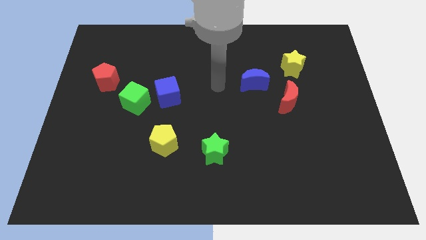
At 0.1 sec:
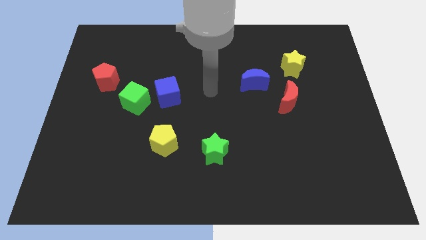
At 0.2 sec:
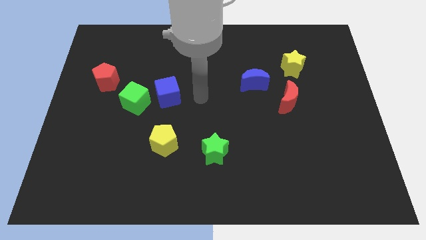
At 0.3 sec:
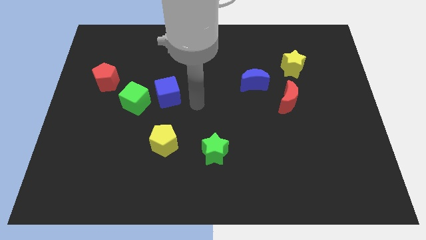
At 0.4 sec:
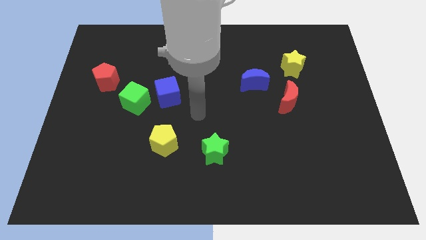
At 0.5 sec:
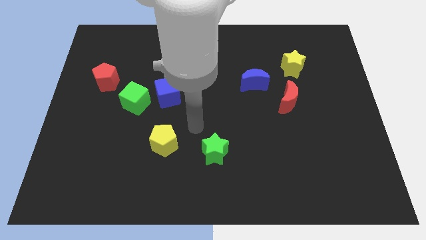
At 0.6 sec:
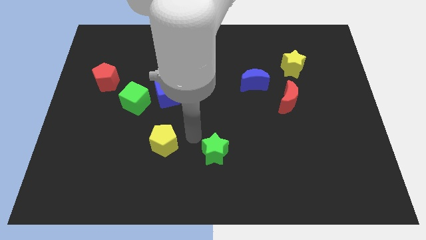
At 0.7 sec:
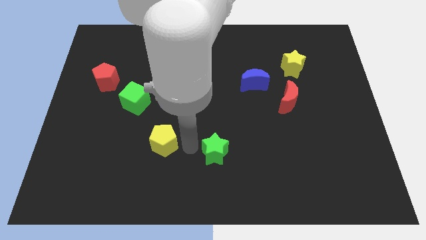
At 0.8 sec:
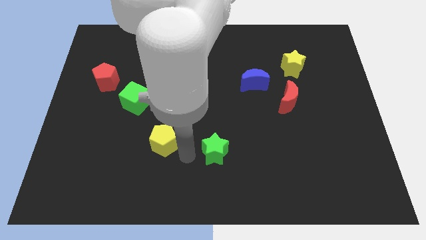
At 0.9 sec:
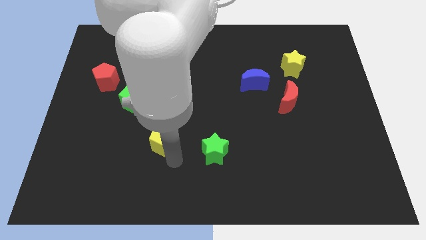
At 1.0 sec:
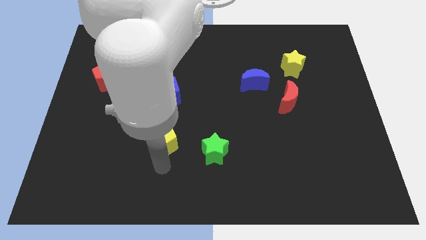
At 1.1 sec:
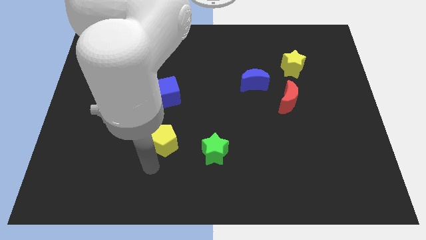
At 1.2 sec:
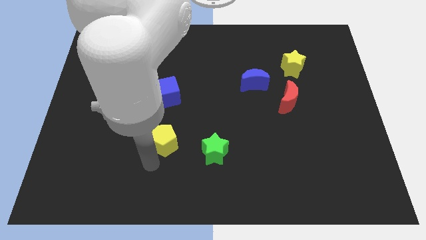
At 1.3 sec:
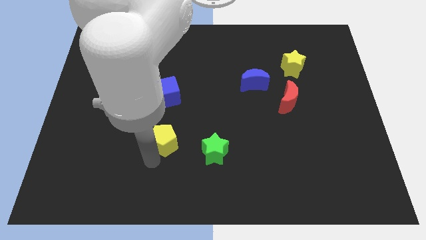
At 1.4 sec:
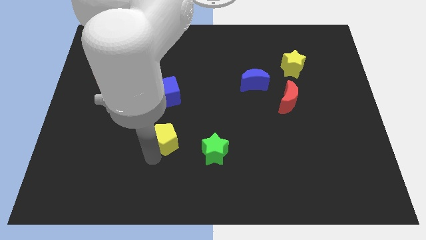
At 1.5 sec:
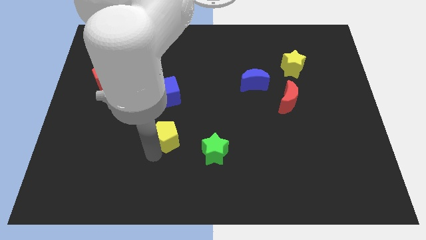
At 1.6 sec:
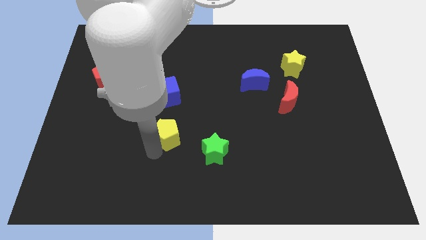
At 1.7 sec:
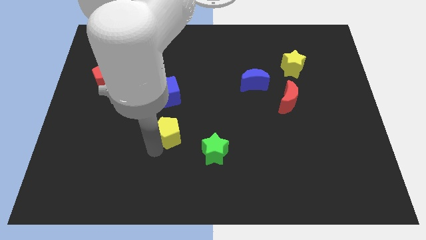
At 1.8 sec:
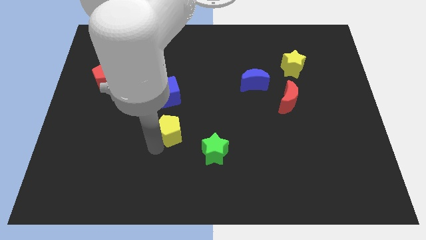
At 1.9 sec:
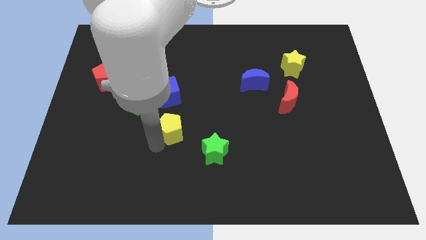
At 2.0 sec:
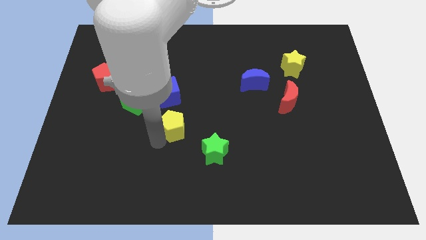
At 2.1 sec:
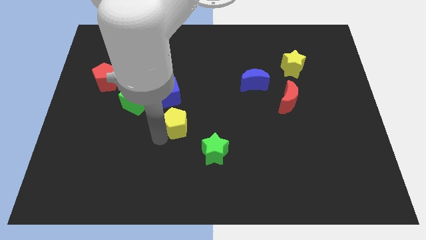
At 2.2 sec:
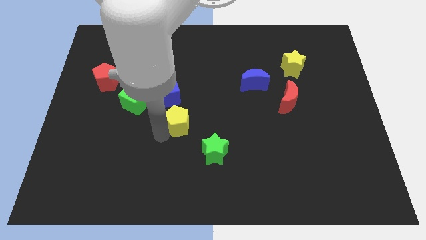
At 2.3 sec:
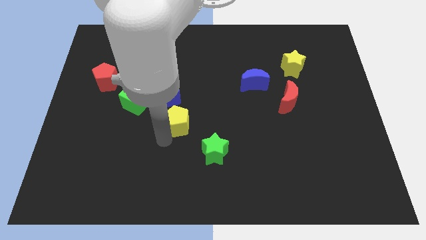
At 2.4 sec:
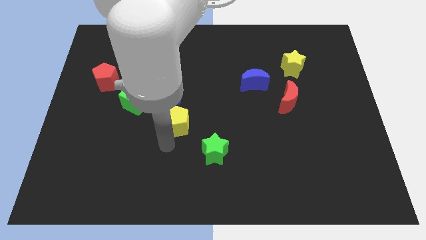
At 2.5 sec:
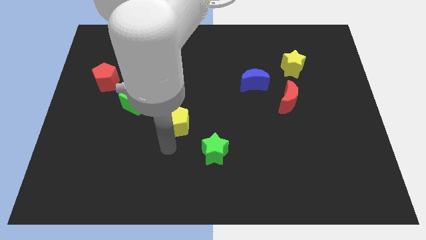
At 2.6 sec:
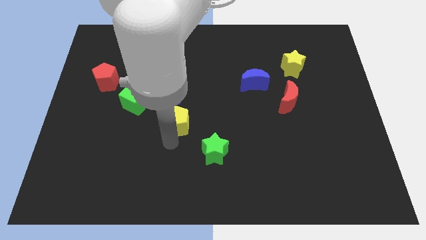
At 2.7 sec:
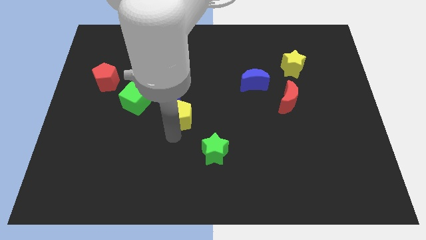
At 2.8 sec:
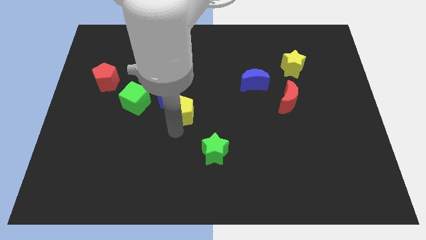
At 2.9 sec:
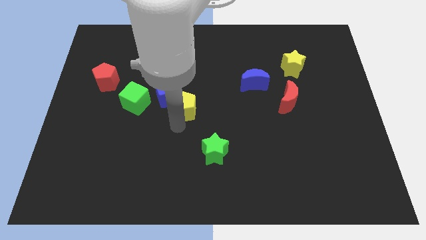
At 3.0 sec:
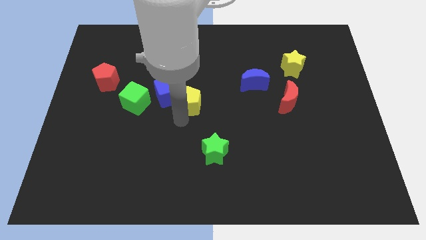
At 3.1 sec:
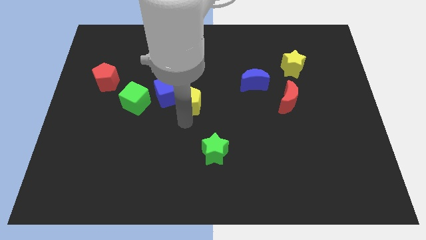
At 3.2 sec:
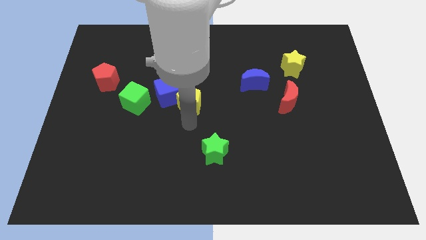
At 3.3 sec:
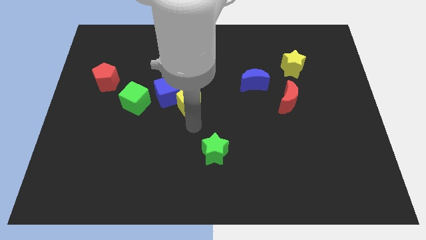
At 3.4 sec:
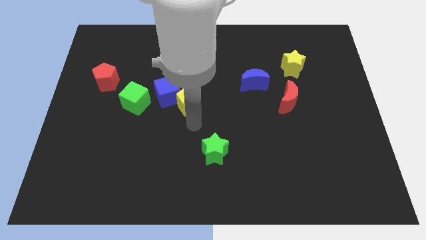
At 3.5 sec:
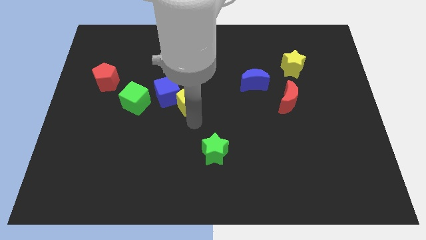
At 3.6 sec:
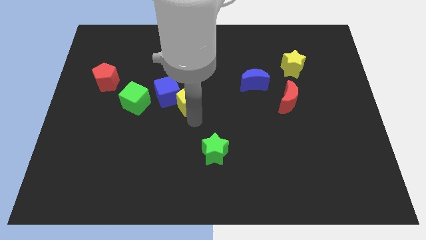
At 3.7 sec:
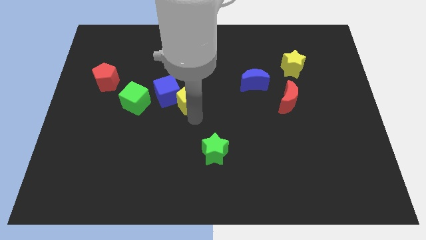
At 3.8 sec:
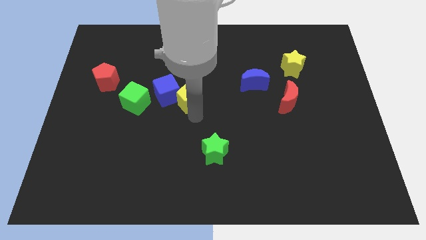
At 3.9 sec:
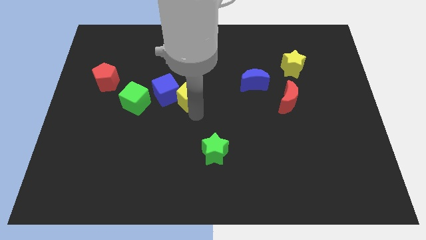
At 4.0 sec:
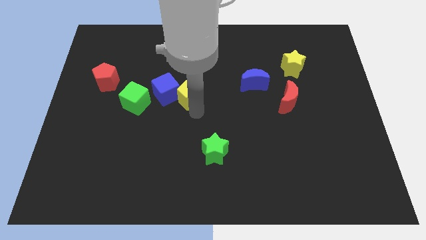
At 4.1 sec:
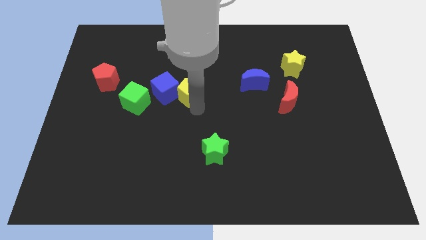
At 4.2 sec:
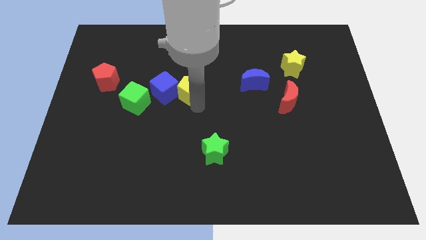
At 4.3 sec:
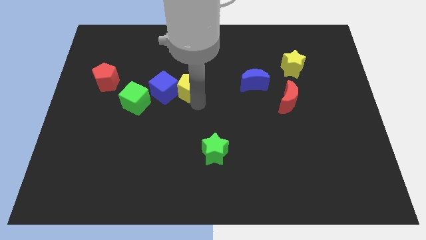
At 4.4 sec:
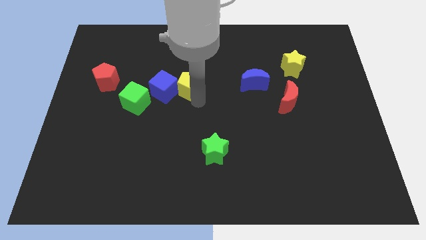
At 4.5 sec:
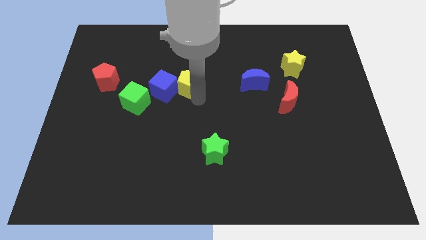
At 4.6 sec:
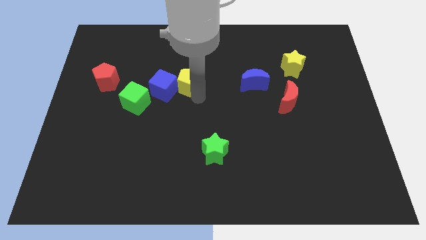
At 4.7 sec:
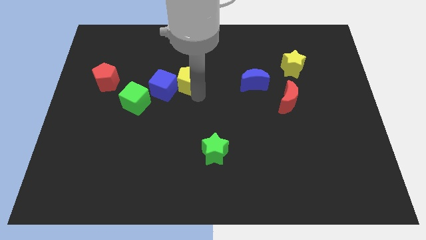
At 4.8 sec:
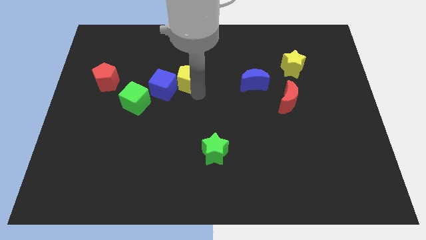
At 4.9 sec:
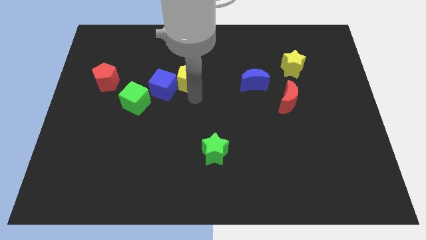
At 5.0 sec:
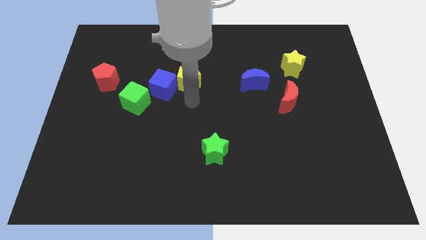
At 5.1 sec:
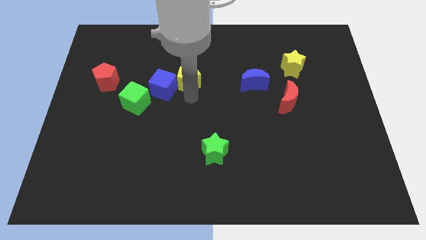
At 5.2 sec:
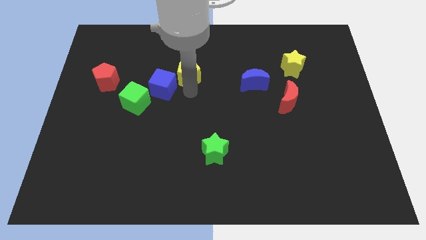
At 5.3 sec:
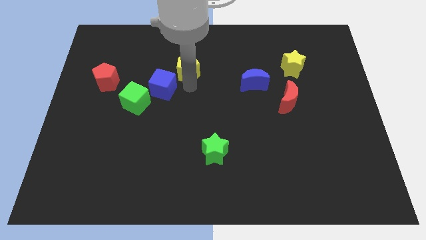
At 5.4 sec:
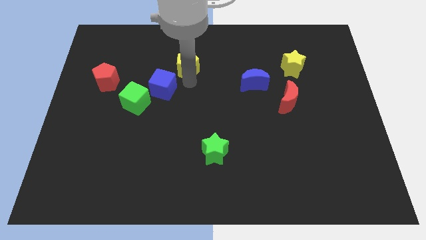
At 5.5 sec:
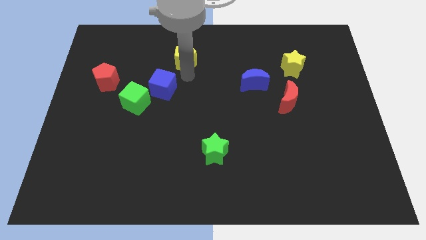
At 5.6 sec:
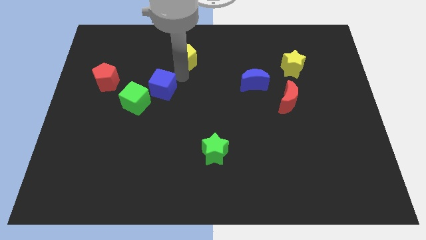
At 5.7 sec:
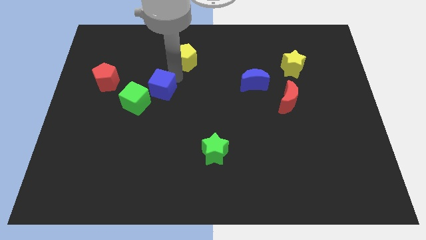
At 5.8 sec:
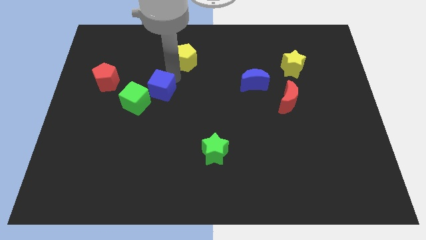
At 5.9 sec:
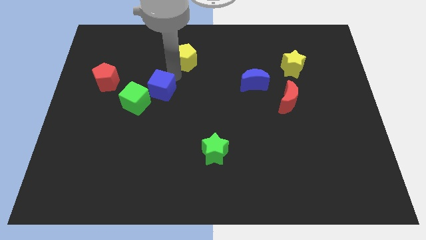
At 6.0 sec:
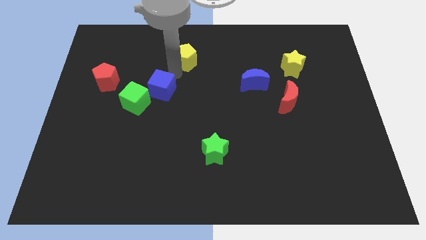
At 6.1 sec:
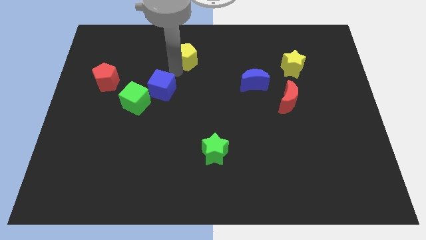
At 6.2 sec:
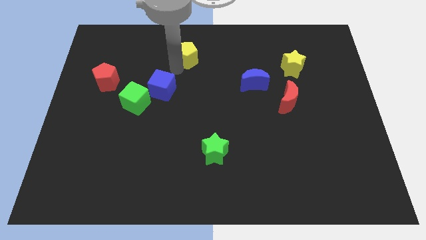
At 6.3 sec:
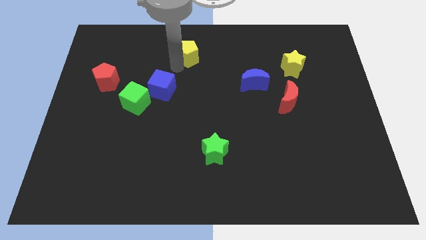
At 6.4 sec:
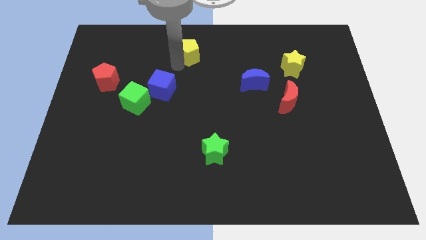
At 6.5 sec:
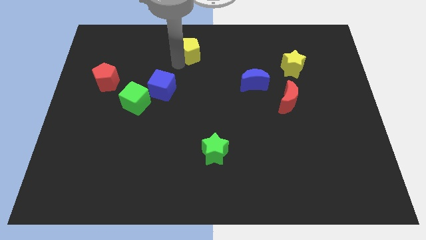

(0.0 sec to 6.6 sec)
move the yellow pentagon to the top
